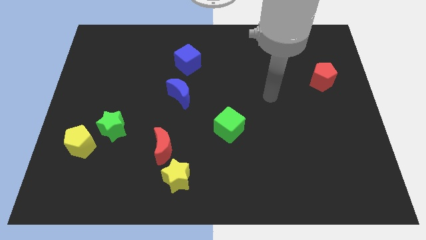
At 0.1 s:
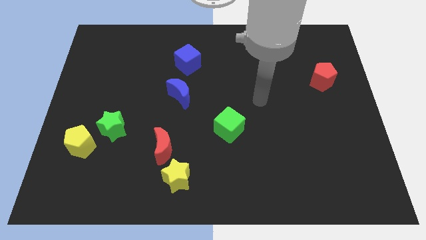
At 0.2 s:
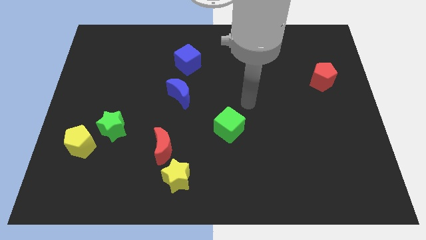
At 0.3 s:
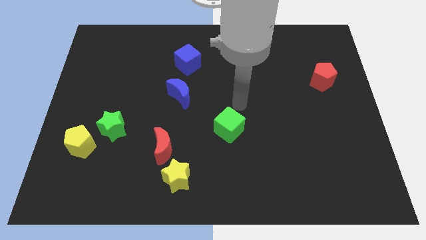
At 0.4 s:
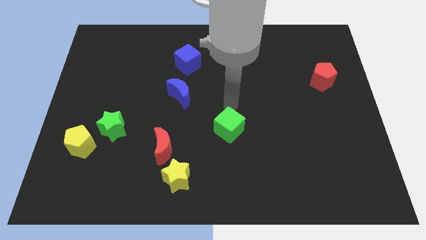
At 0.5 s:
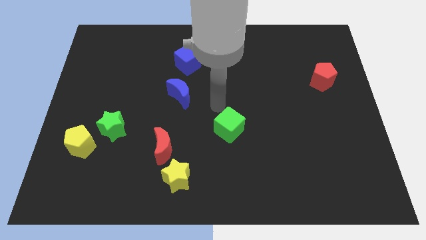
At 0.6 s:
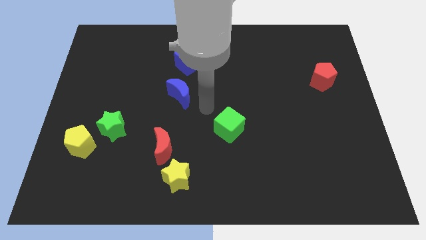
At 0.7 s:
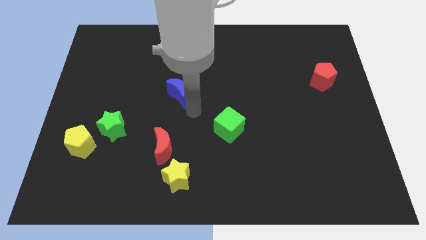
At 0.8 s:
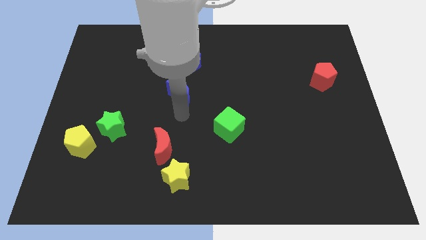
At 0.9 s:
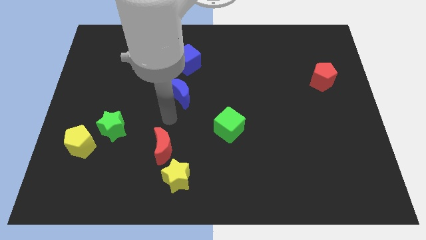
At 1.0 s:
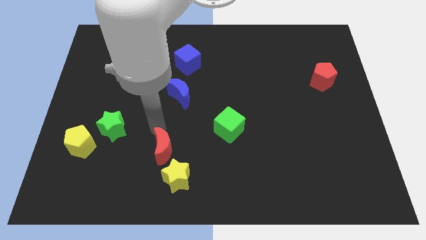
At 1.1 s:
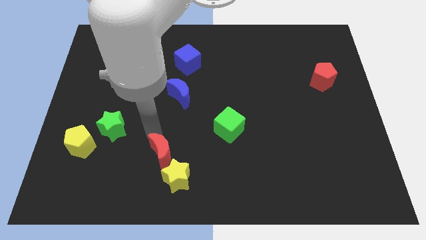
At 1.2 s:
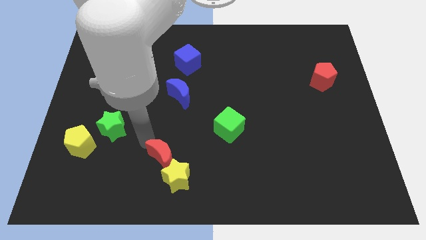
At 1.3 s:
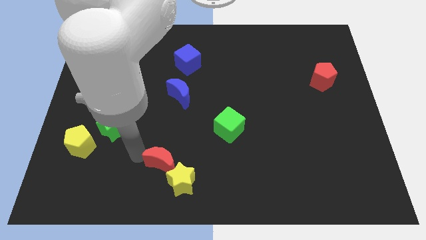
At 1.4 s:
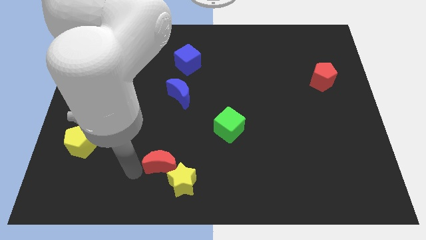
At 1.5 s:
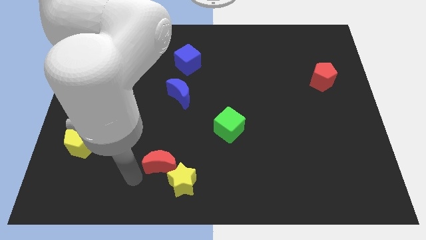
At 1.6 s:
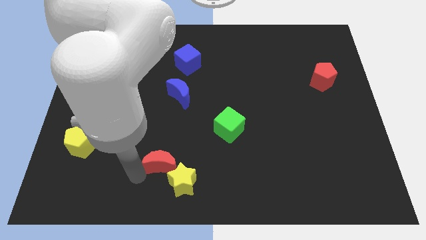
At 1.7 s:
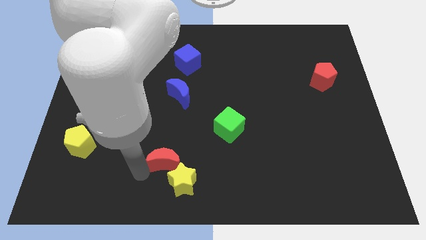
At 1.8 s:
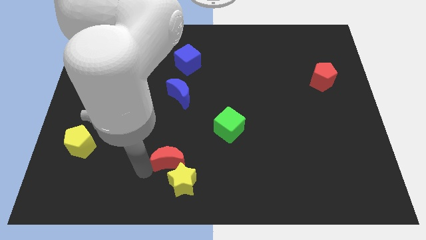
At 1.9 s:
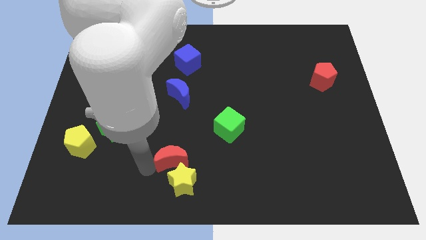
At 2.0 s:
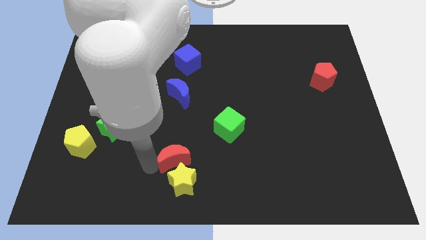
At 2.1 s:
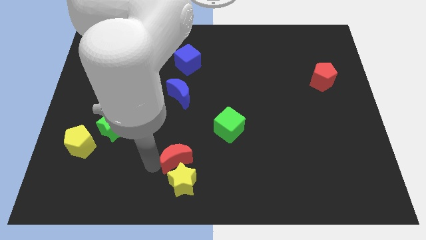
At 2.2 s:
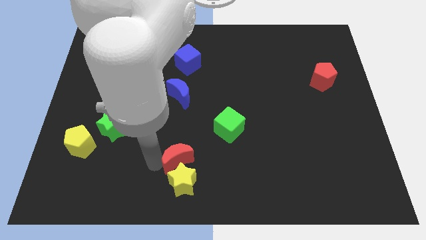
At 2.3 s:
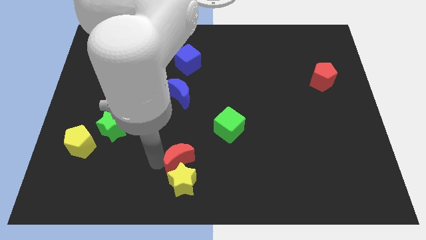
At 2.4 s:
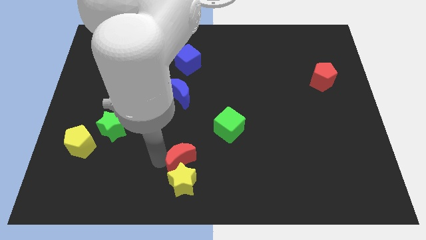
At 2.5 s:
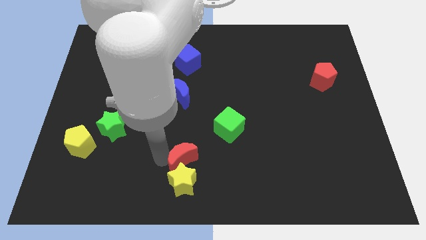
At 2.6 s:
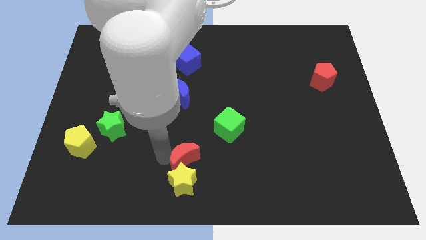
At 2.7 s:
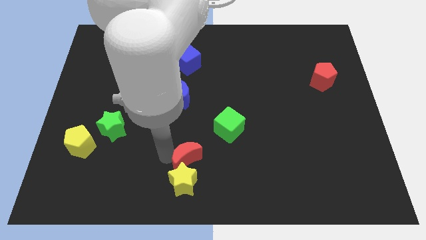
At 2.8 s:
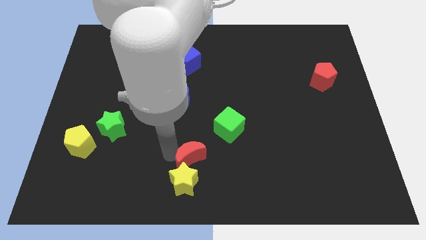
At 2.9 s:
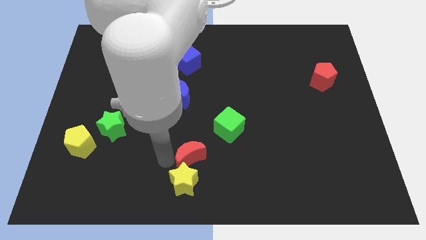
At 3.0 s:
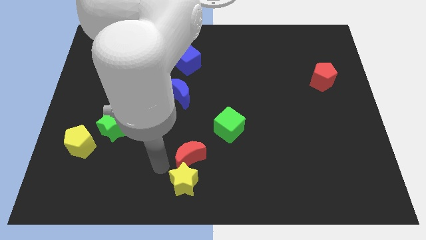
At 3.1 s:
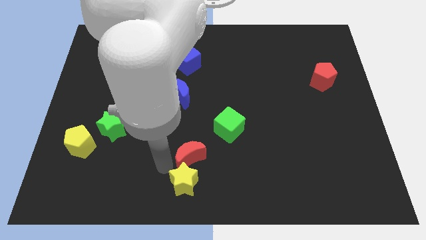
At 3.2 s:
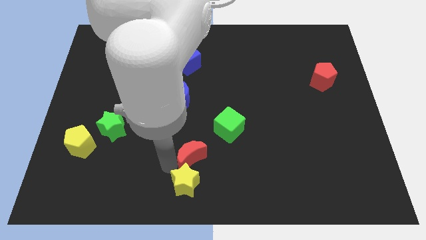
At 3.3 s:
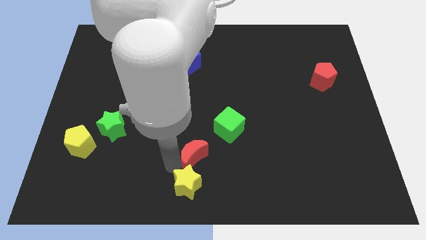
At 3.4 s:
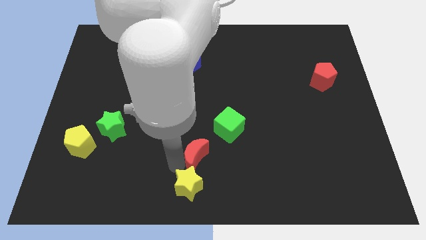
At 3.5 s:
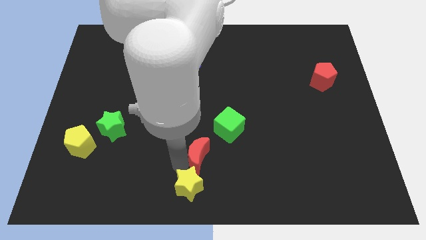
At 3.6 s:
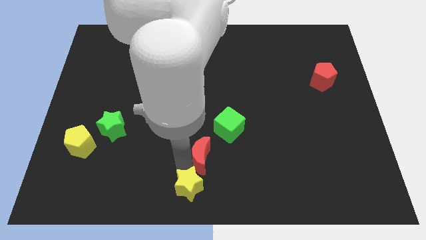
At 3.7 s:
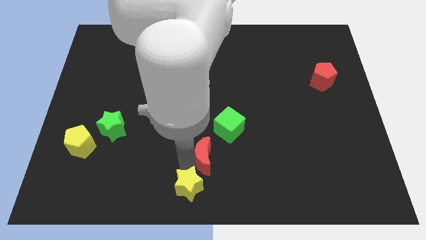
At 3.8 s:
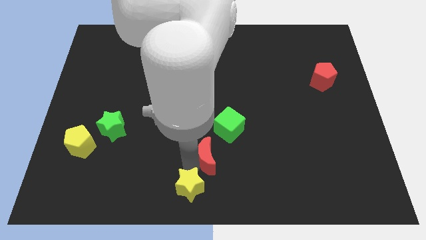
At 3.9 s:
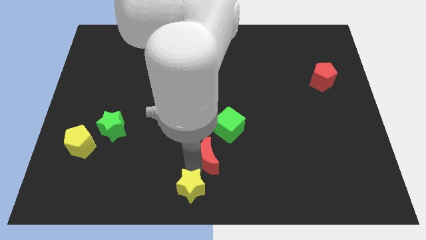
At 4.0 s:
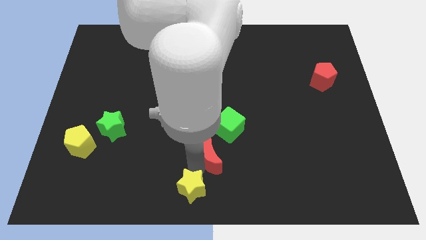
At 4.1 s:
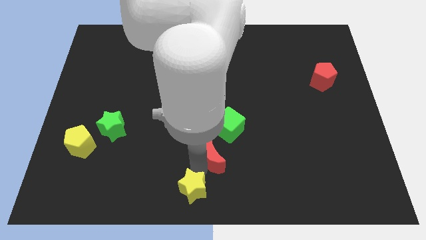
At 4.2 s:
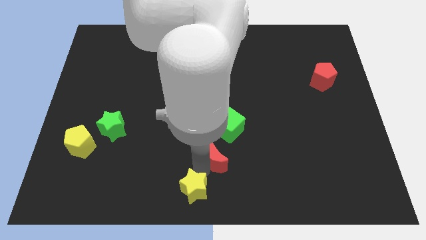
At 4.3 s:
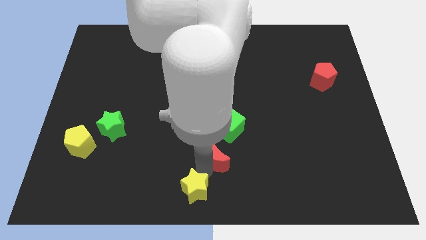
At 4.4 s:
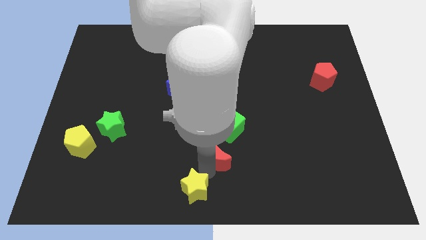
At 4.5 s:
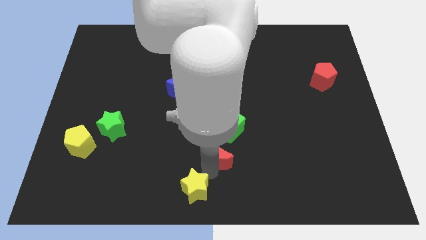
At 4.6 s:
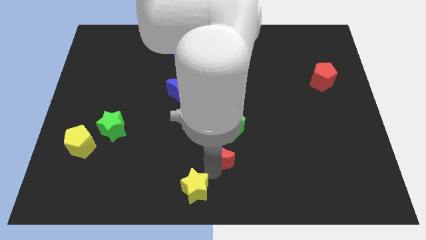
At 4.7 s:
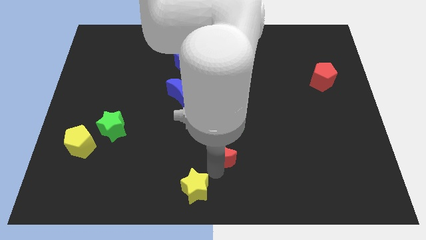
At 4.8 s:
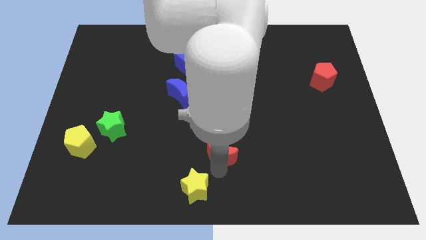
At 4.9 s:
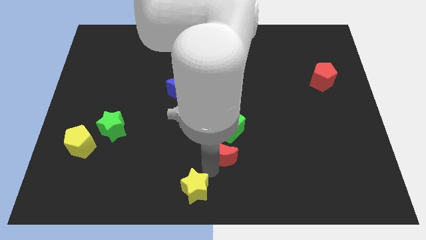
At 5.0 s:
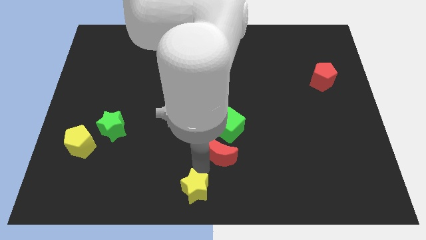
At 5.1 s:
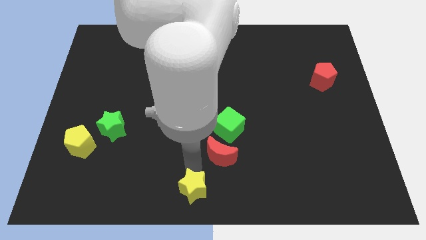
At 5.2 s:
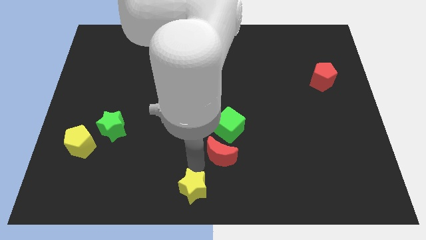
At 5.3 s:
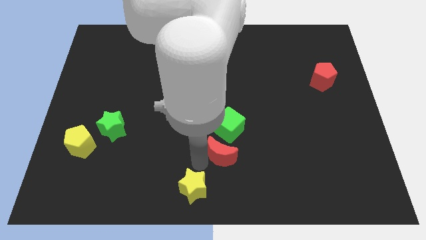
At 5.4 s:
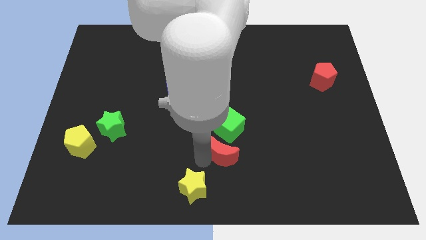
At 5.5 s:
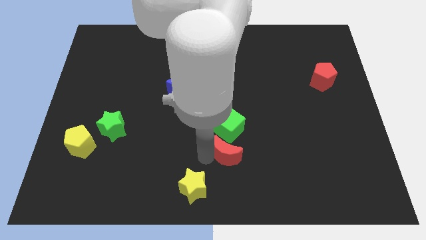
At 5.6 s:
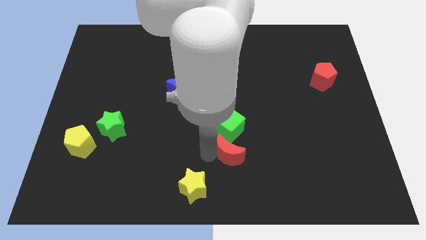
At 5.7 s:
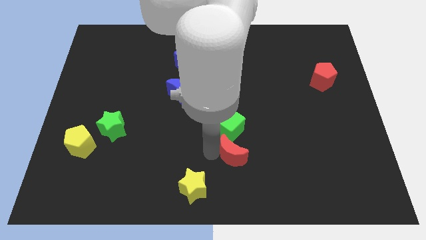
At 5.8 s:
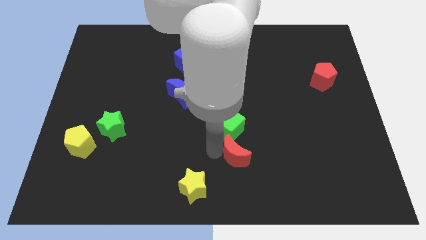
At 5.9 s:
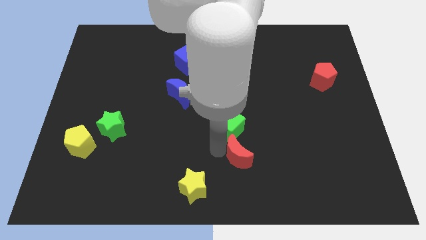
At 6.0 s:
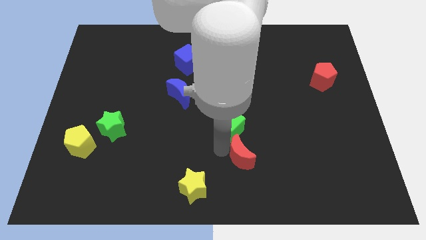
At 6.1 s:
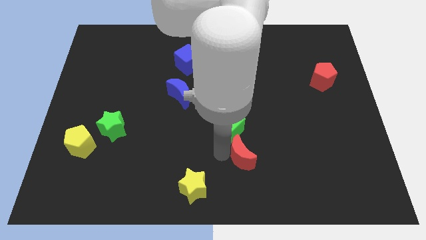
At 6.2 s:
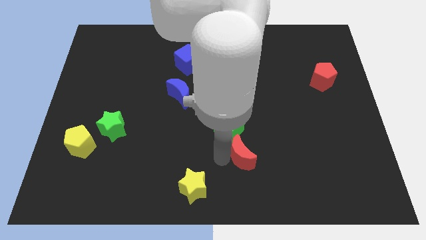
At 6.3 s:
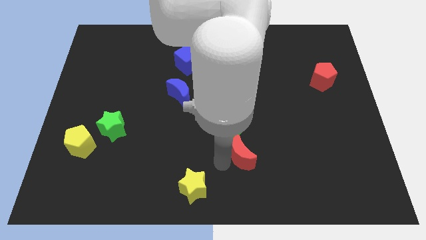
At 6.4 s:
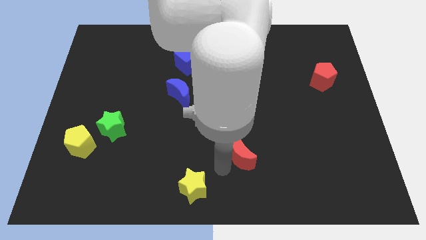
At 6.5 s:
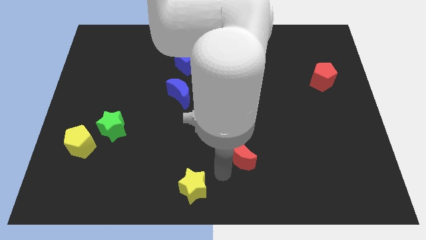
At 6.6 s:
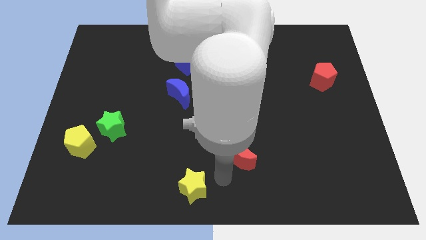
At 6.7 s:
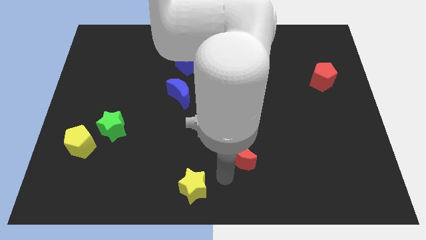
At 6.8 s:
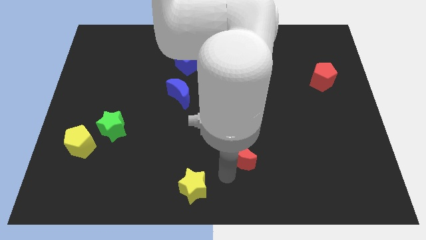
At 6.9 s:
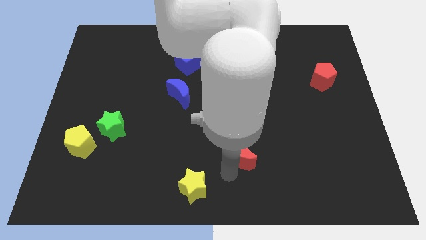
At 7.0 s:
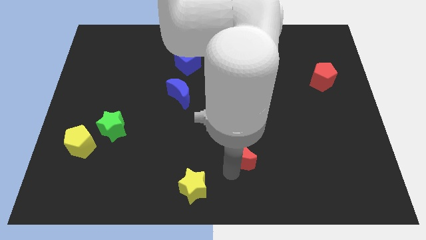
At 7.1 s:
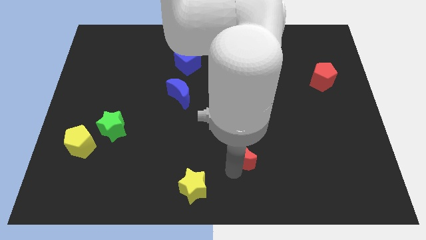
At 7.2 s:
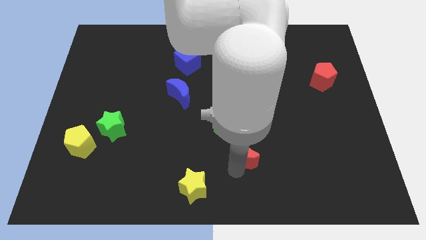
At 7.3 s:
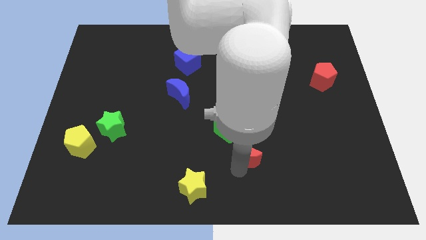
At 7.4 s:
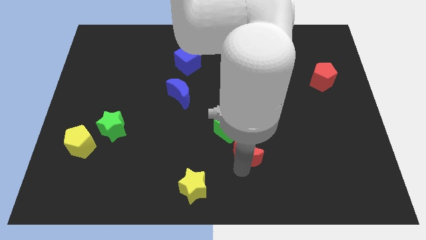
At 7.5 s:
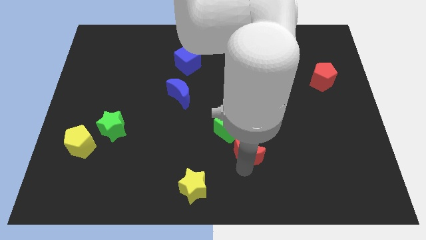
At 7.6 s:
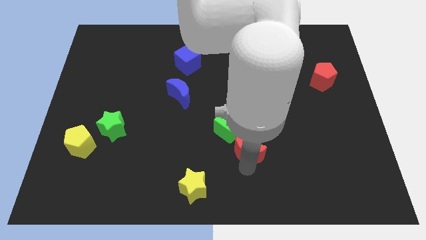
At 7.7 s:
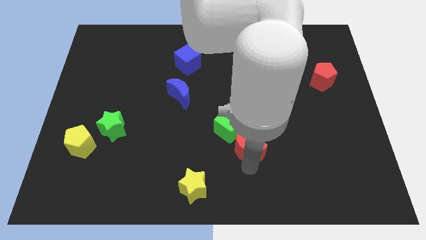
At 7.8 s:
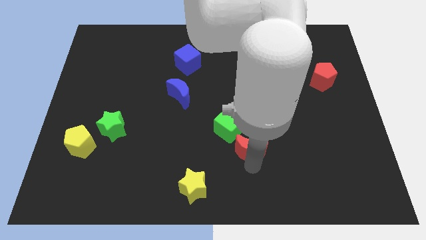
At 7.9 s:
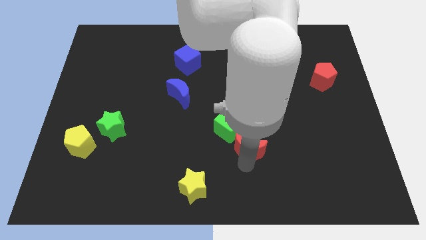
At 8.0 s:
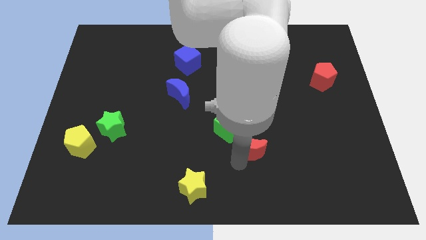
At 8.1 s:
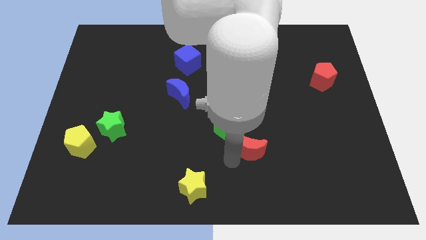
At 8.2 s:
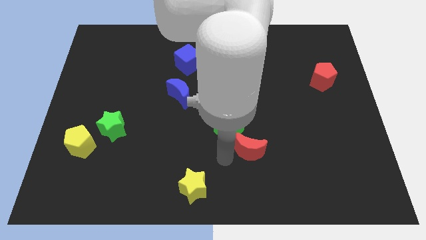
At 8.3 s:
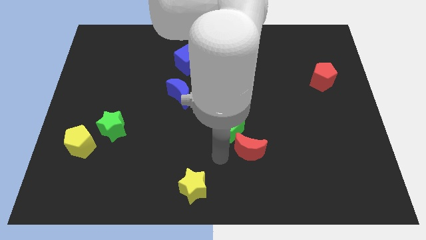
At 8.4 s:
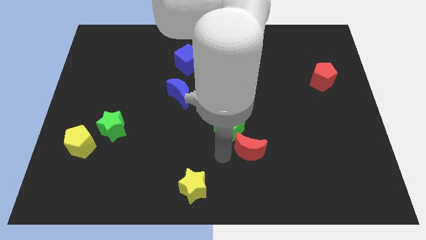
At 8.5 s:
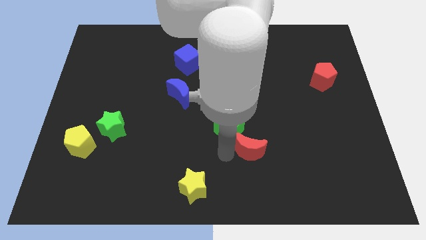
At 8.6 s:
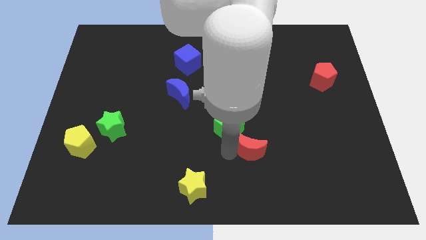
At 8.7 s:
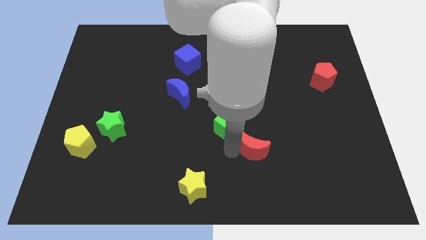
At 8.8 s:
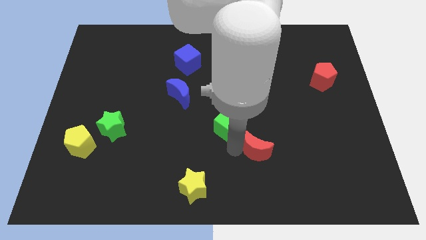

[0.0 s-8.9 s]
slide the red moon to the right
